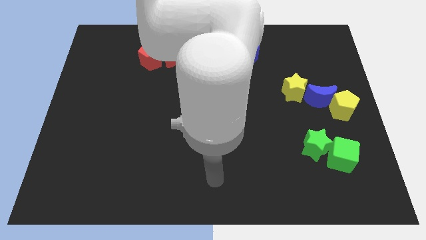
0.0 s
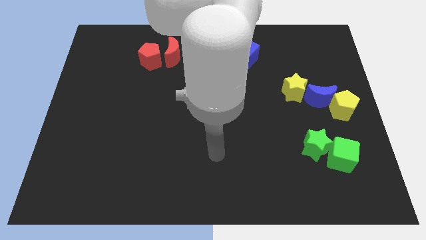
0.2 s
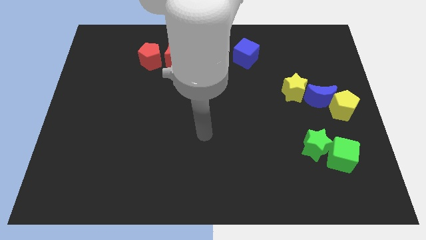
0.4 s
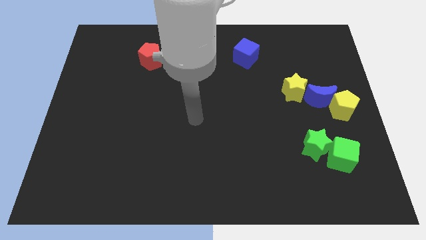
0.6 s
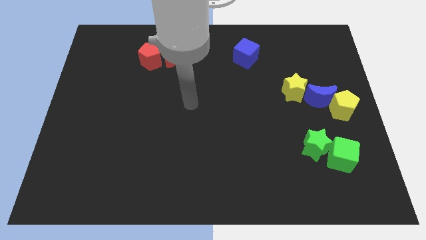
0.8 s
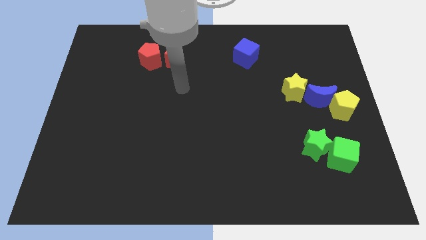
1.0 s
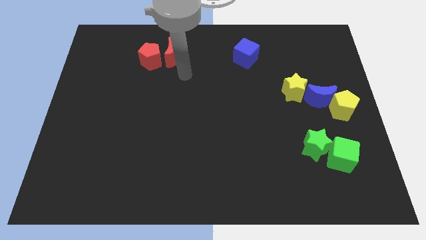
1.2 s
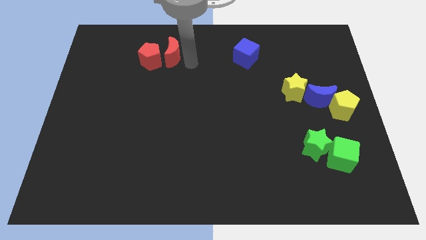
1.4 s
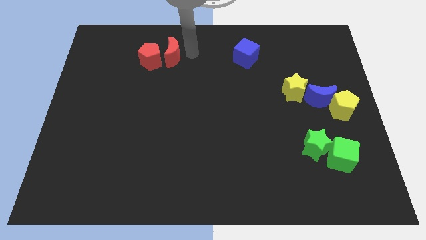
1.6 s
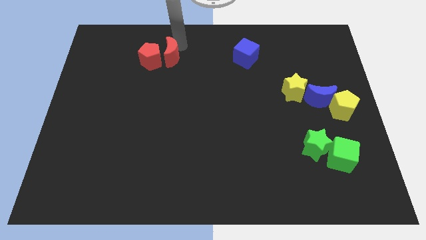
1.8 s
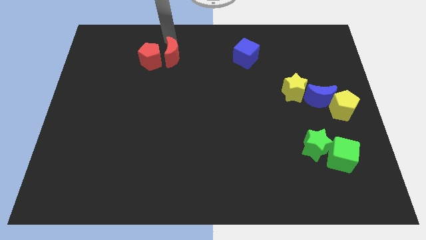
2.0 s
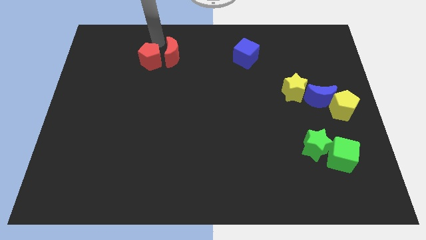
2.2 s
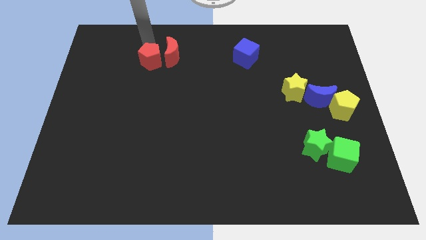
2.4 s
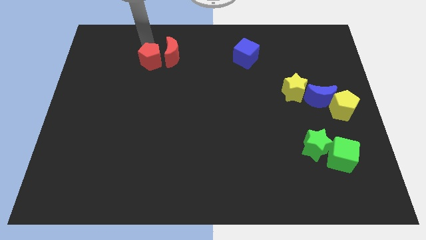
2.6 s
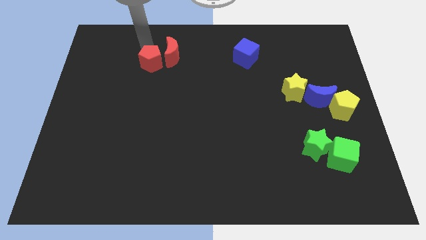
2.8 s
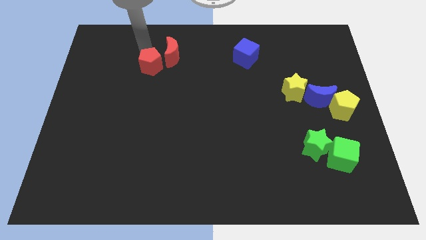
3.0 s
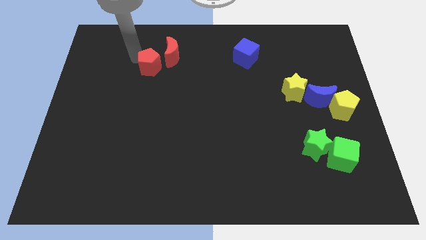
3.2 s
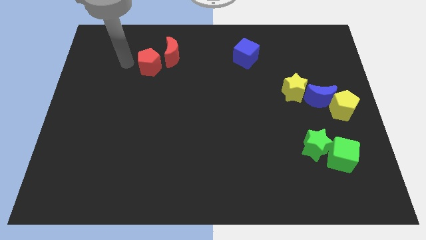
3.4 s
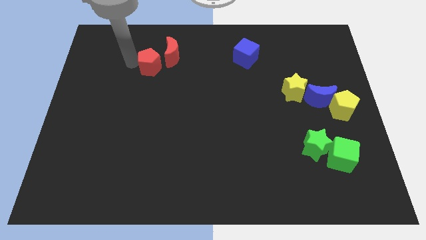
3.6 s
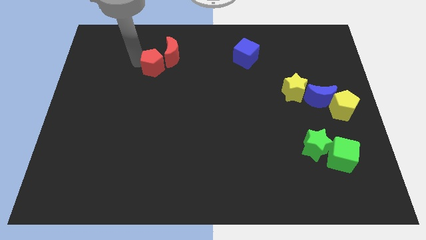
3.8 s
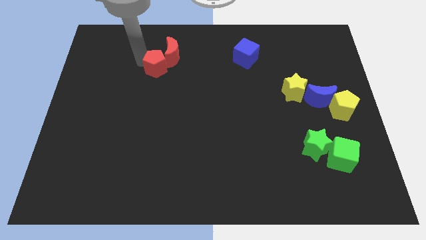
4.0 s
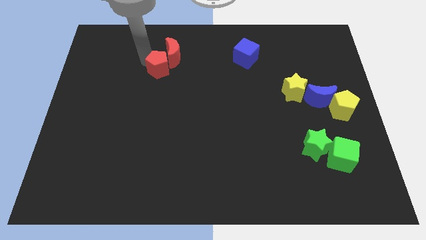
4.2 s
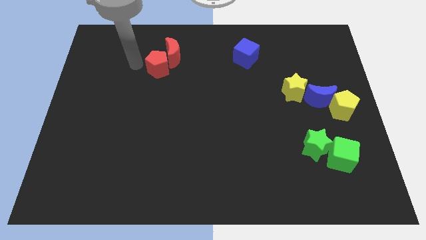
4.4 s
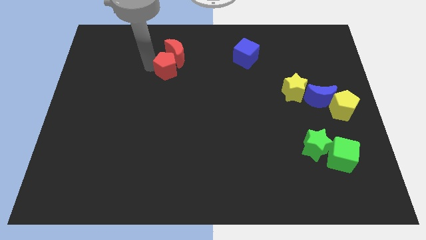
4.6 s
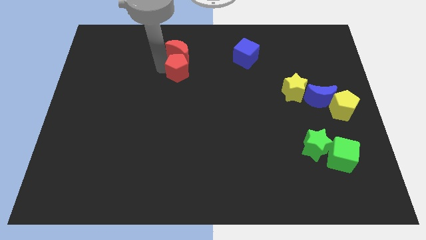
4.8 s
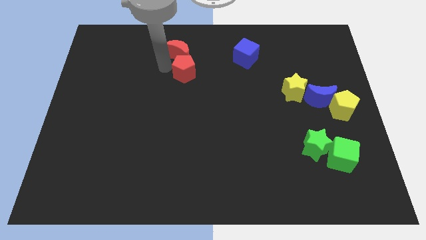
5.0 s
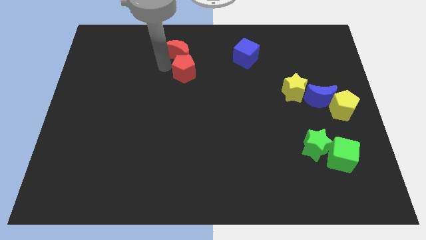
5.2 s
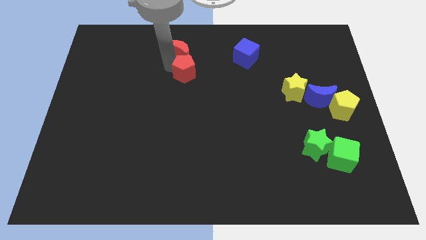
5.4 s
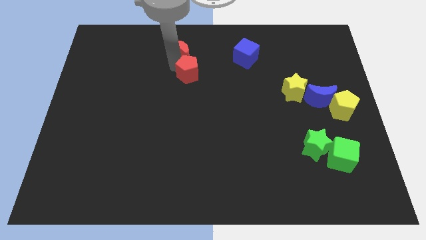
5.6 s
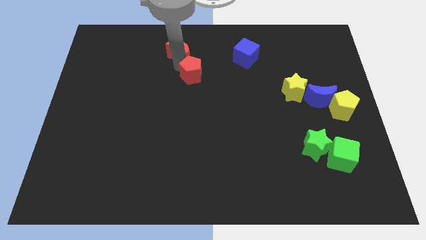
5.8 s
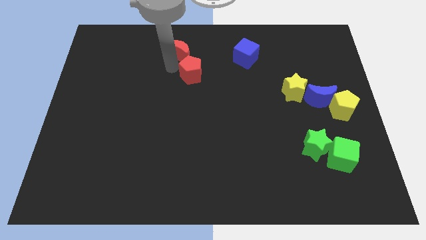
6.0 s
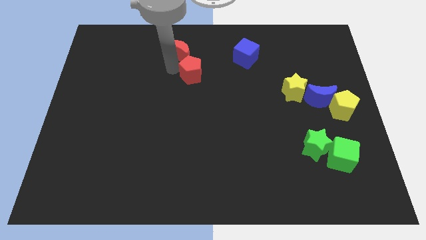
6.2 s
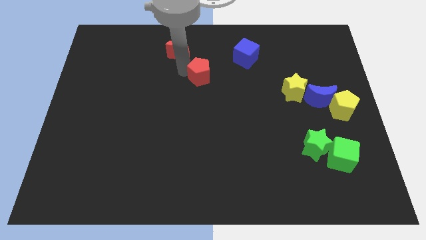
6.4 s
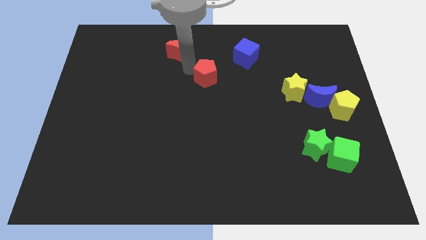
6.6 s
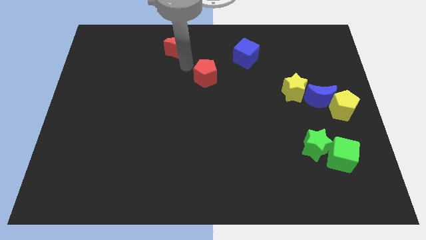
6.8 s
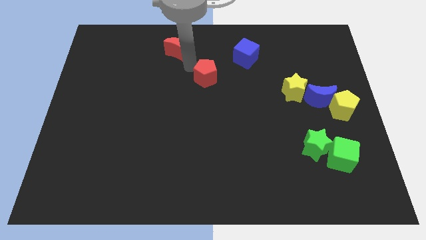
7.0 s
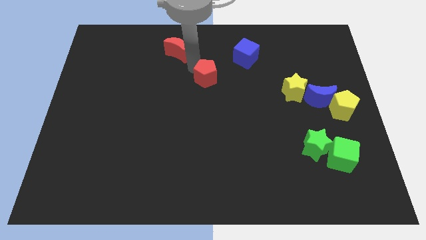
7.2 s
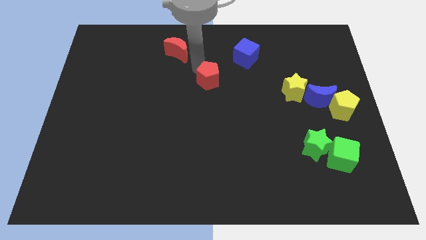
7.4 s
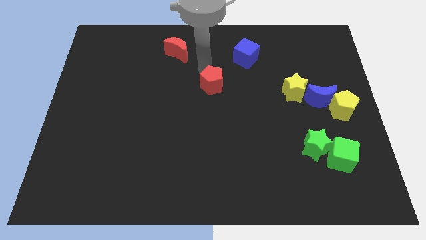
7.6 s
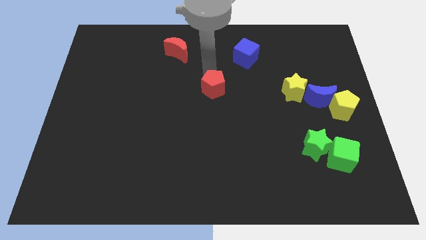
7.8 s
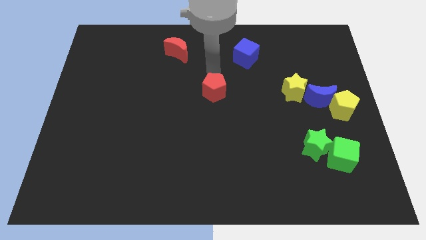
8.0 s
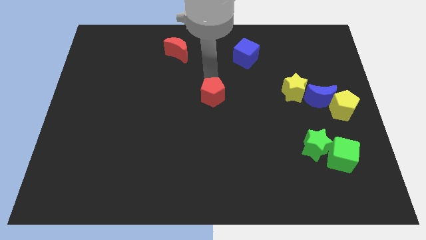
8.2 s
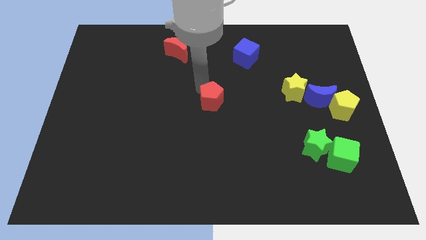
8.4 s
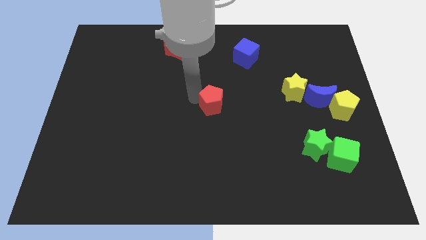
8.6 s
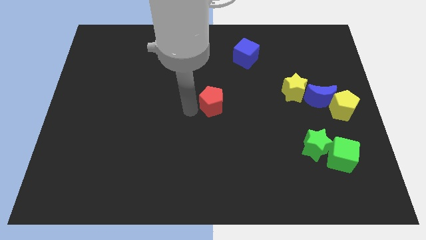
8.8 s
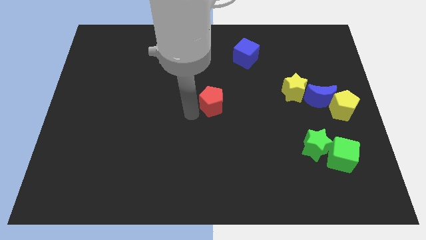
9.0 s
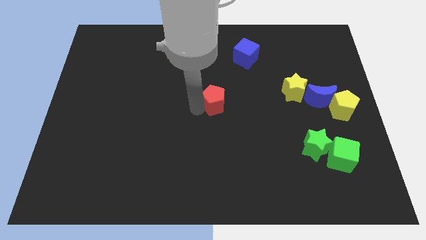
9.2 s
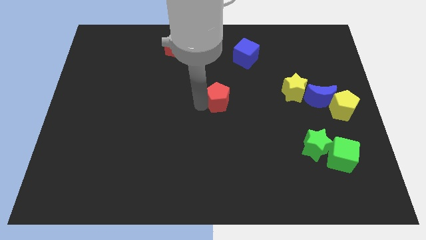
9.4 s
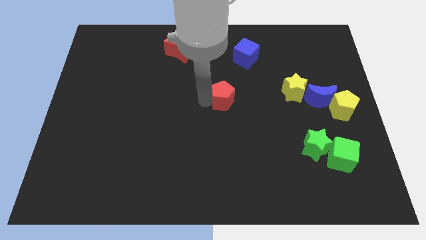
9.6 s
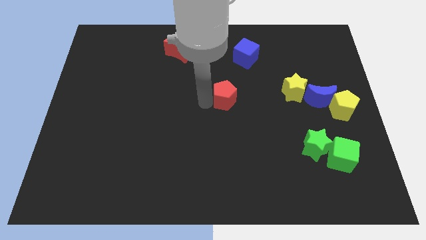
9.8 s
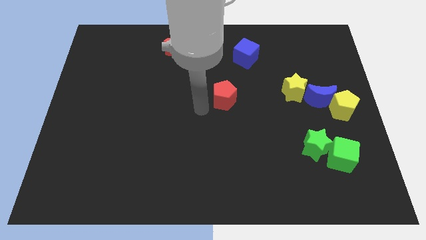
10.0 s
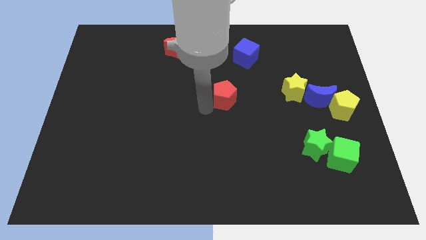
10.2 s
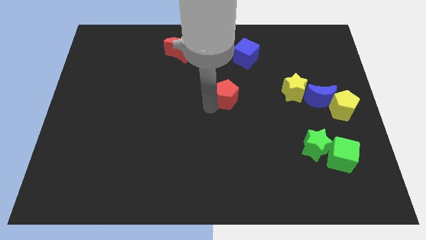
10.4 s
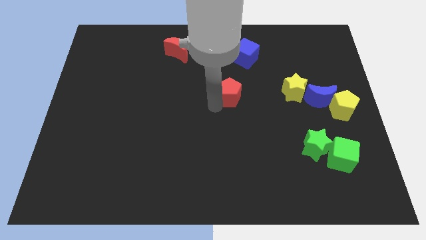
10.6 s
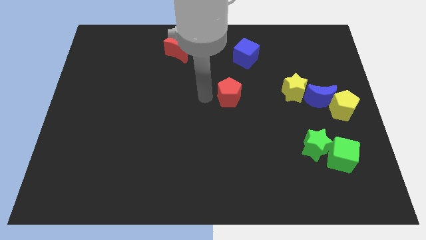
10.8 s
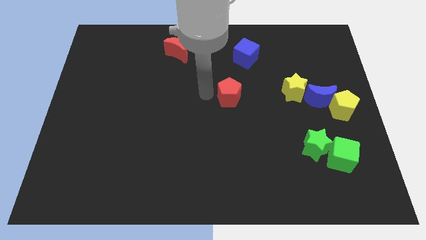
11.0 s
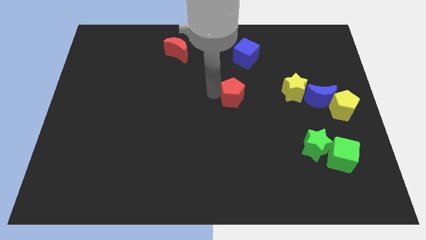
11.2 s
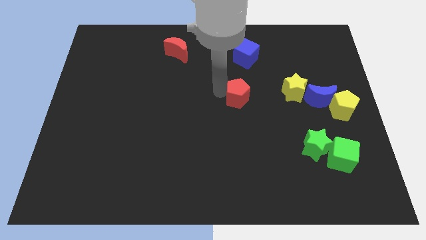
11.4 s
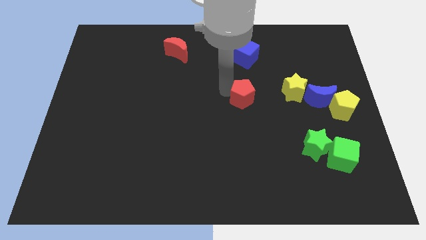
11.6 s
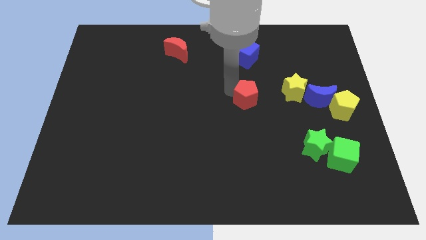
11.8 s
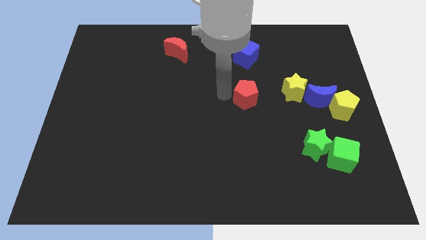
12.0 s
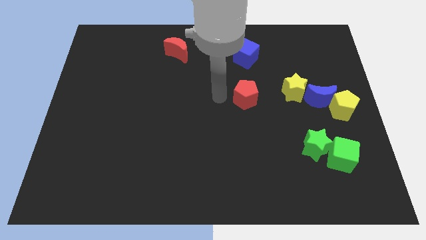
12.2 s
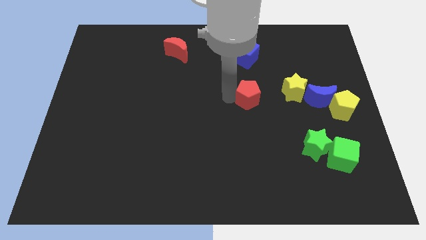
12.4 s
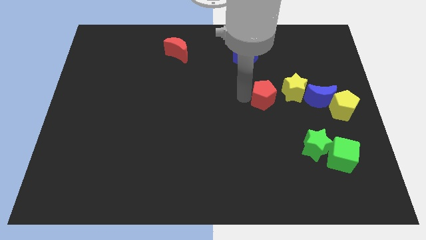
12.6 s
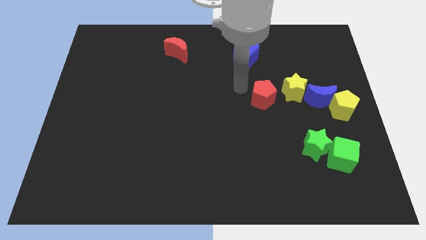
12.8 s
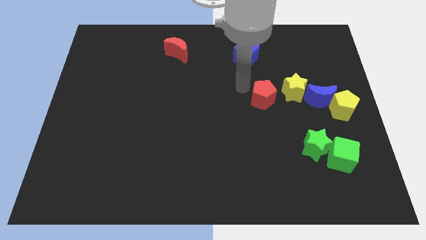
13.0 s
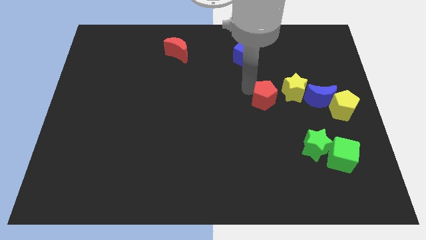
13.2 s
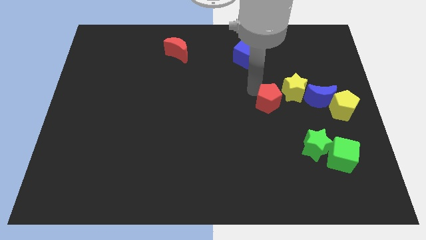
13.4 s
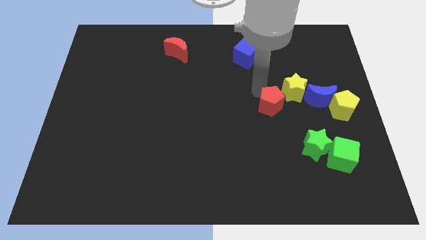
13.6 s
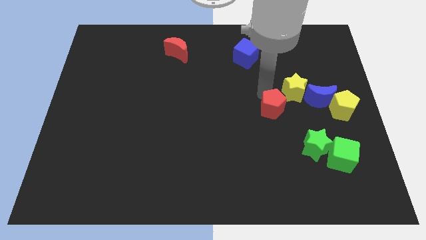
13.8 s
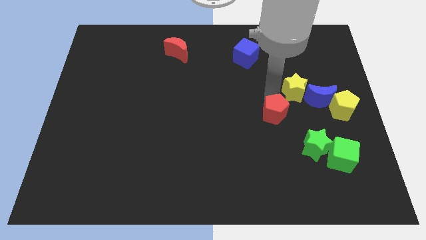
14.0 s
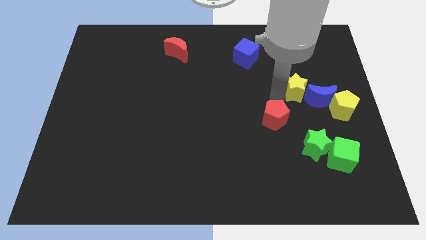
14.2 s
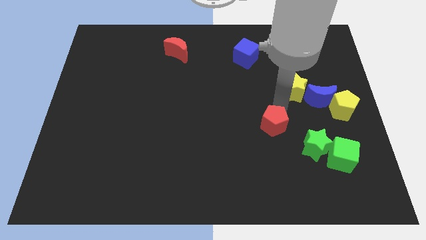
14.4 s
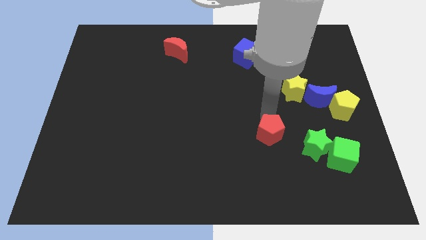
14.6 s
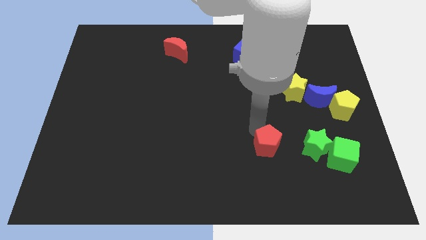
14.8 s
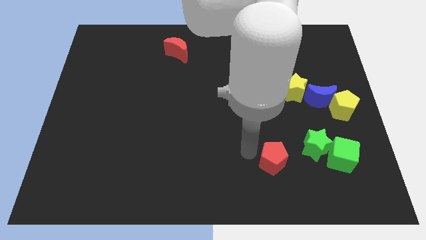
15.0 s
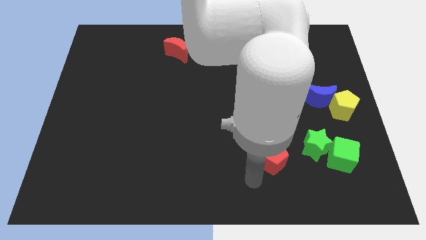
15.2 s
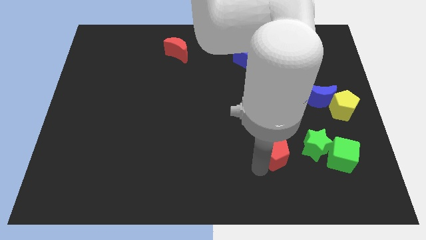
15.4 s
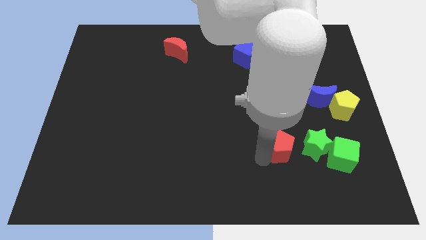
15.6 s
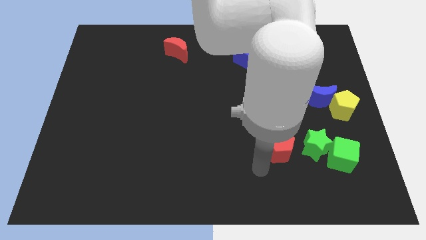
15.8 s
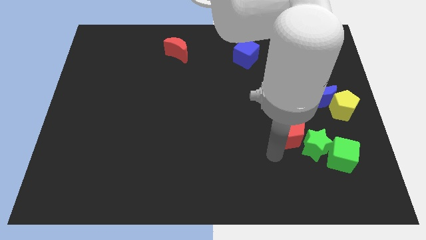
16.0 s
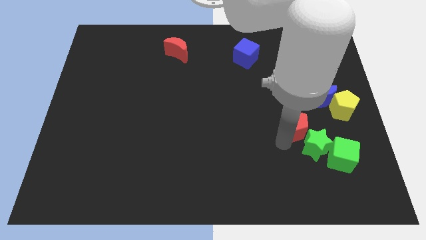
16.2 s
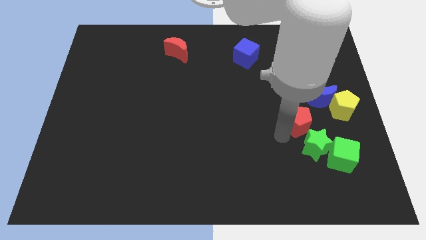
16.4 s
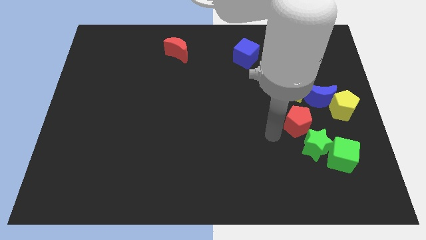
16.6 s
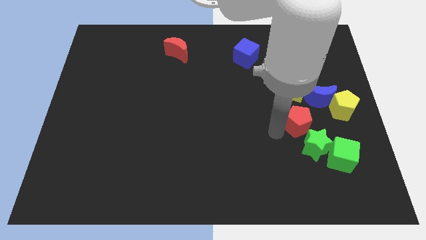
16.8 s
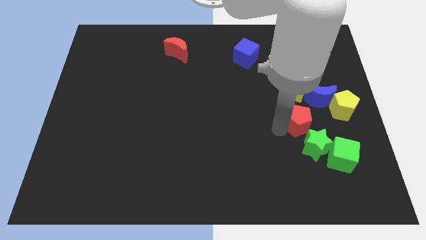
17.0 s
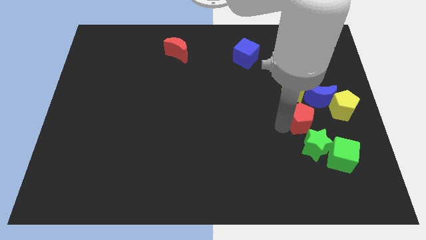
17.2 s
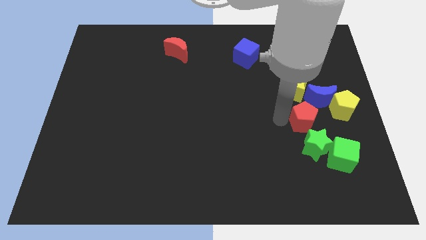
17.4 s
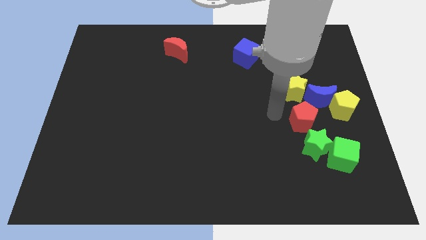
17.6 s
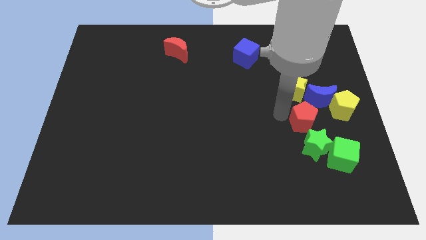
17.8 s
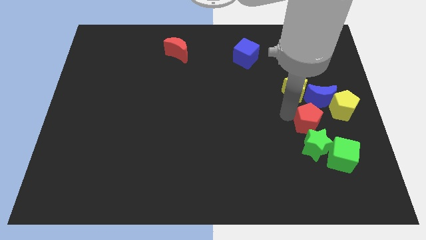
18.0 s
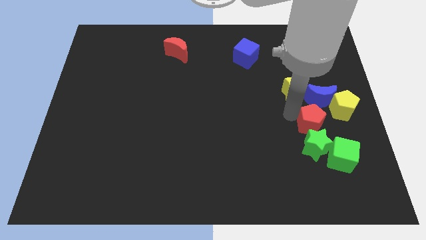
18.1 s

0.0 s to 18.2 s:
put the red pentagon to the top right of the green star
